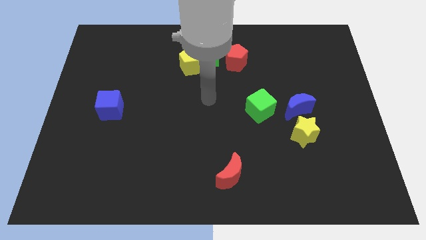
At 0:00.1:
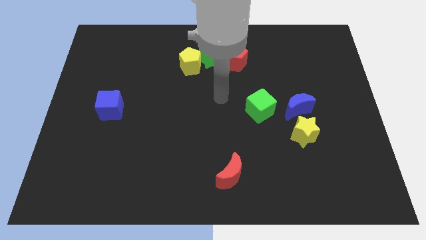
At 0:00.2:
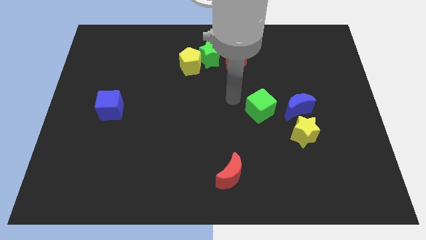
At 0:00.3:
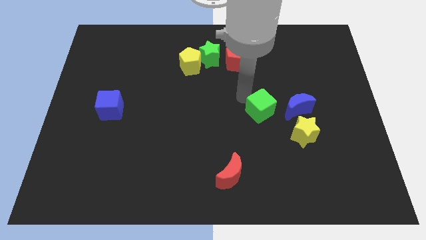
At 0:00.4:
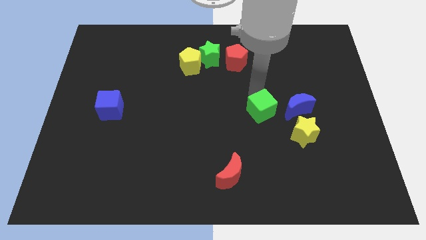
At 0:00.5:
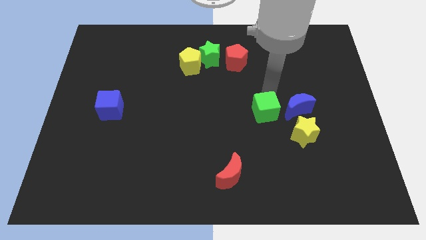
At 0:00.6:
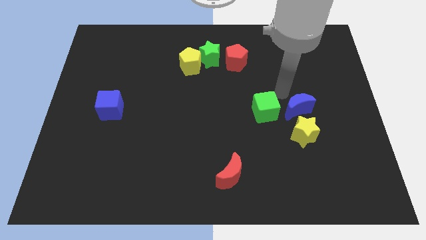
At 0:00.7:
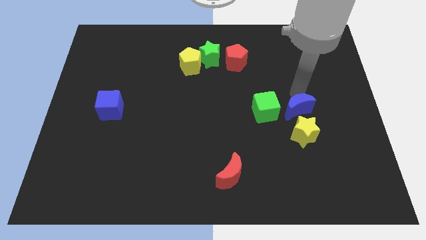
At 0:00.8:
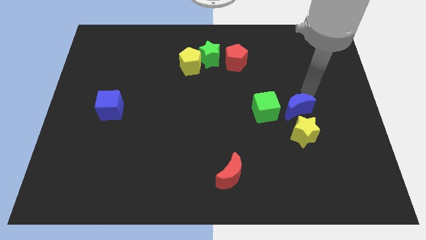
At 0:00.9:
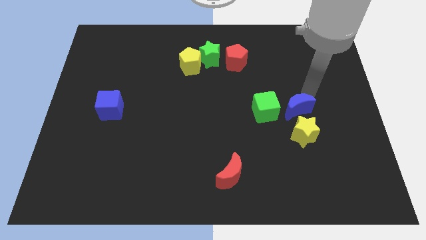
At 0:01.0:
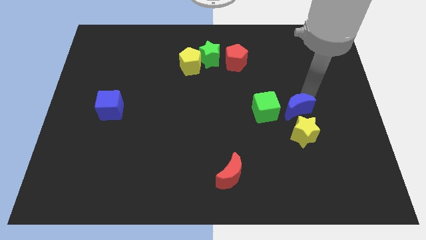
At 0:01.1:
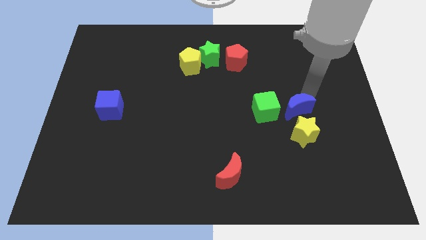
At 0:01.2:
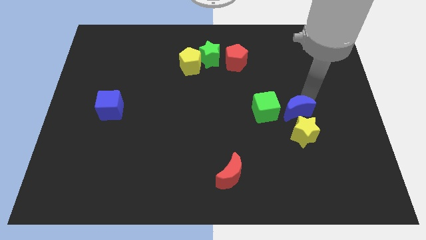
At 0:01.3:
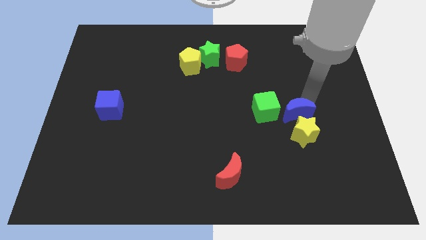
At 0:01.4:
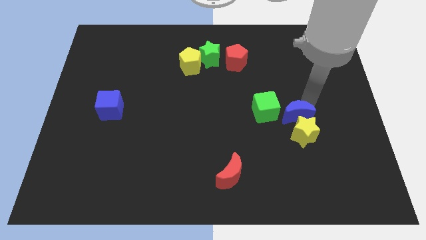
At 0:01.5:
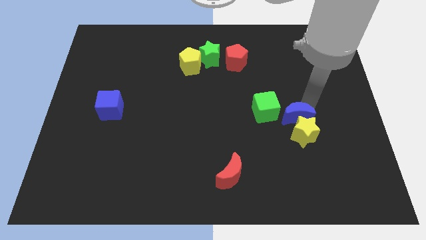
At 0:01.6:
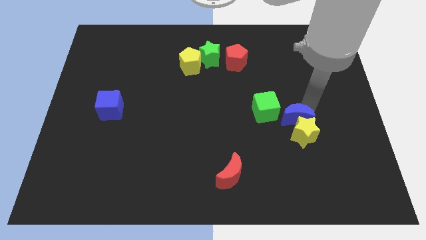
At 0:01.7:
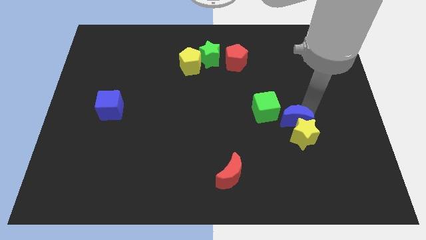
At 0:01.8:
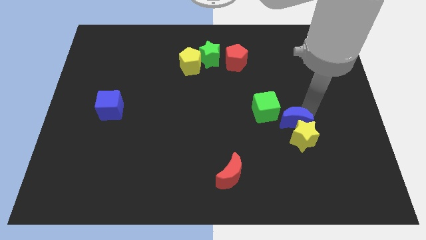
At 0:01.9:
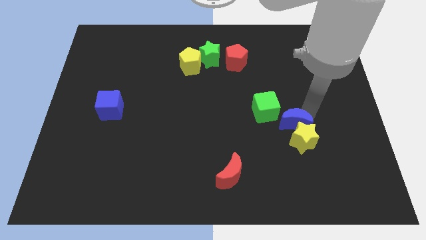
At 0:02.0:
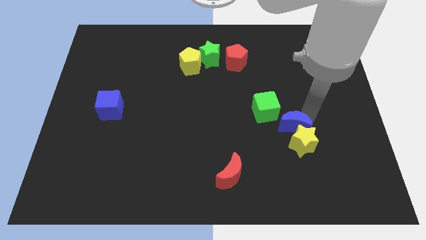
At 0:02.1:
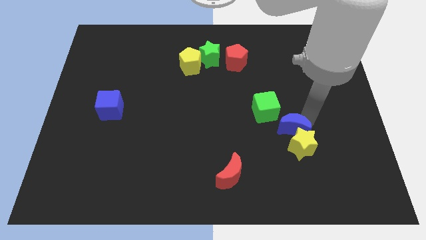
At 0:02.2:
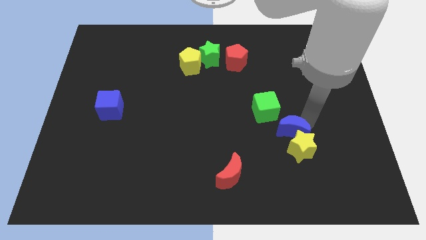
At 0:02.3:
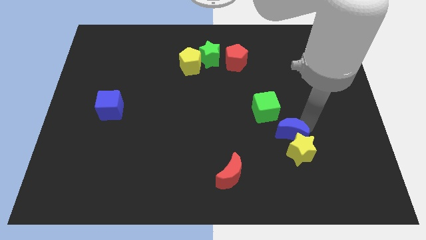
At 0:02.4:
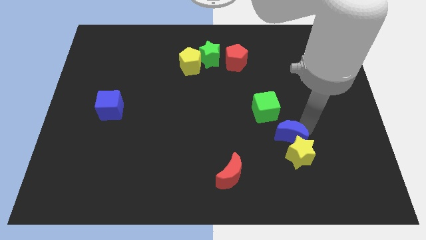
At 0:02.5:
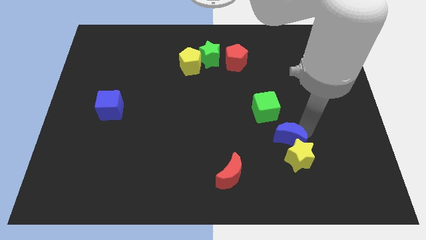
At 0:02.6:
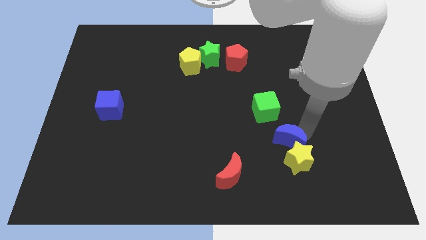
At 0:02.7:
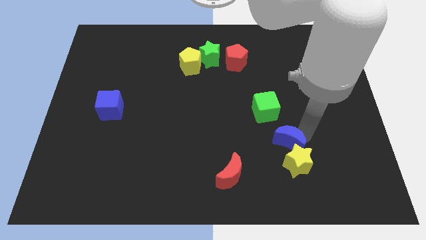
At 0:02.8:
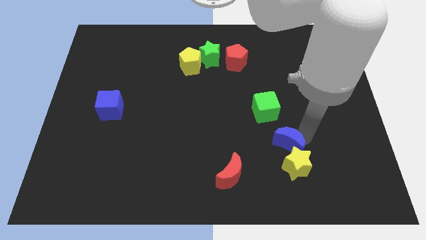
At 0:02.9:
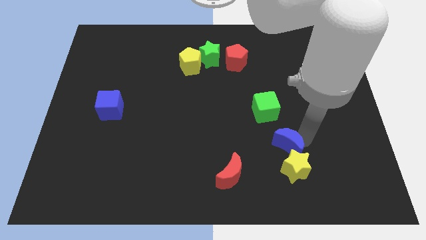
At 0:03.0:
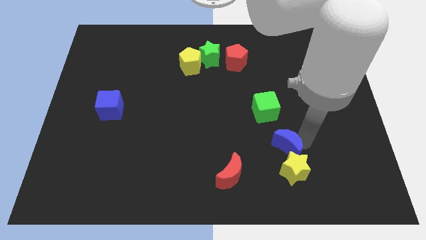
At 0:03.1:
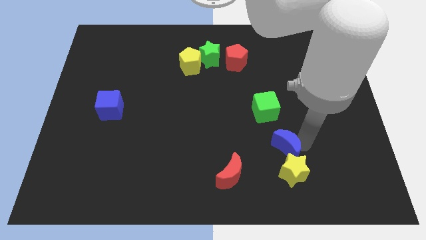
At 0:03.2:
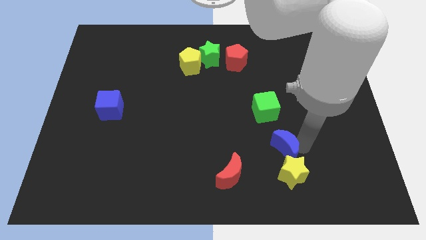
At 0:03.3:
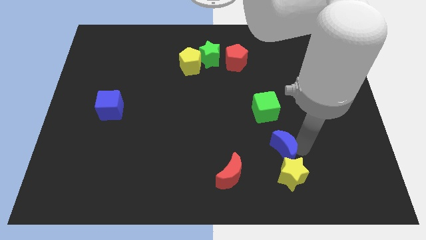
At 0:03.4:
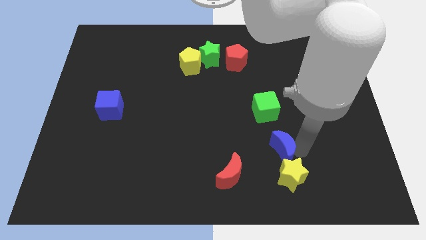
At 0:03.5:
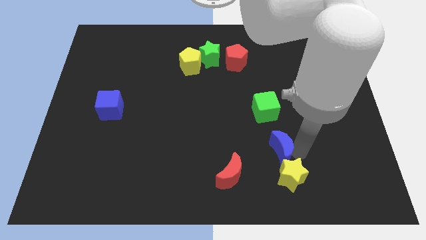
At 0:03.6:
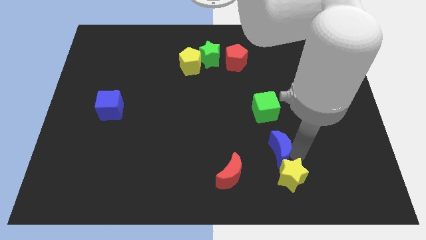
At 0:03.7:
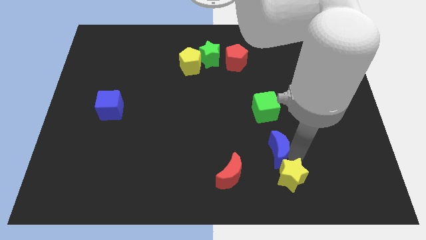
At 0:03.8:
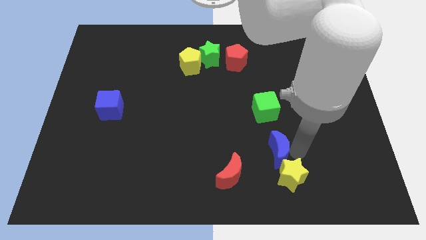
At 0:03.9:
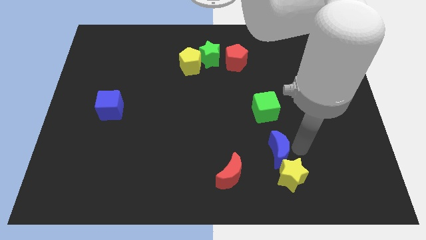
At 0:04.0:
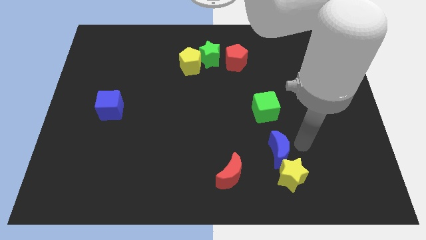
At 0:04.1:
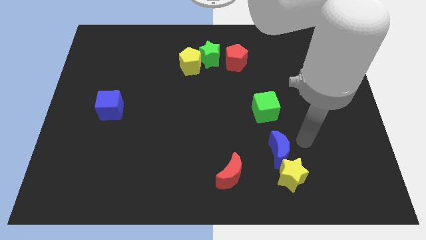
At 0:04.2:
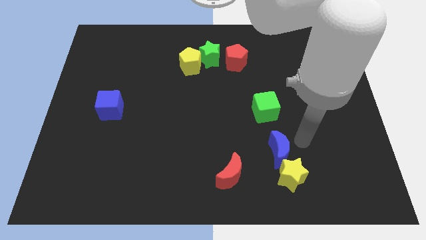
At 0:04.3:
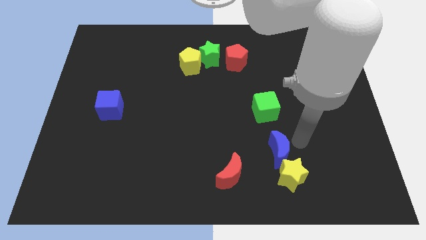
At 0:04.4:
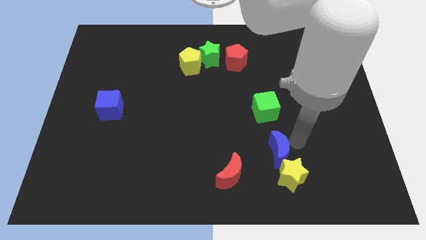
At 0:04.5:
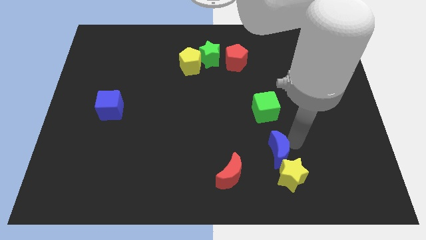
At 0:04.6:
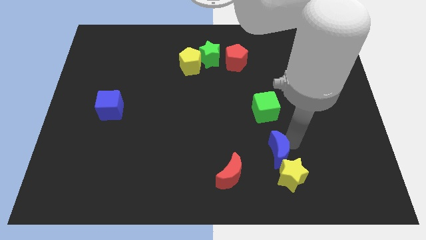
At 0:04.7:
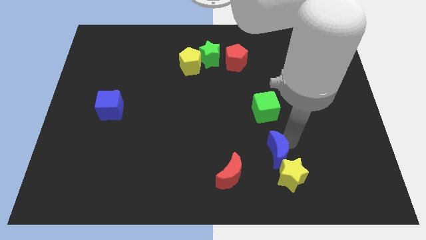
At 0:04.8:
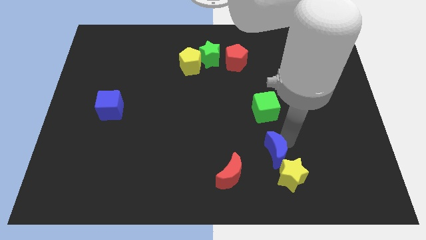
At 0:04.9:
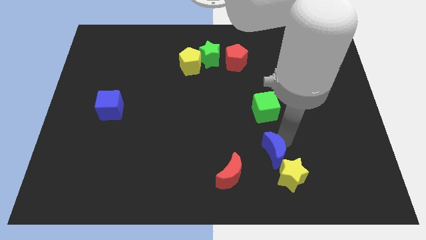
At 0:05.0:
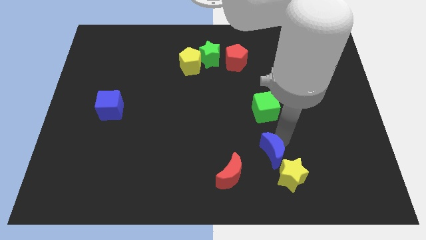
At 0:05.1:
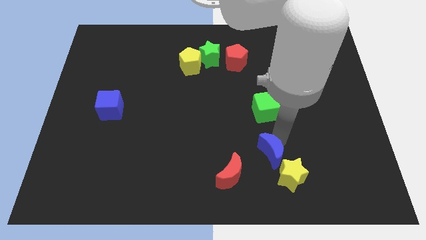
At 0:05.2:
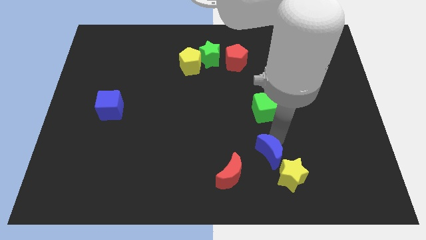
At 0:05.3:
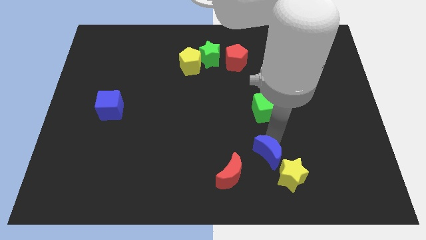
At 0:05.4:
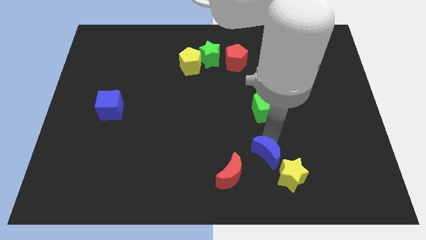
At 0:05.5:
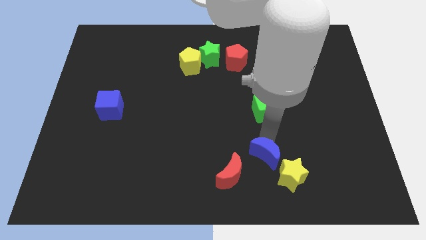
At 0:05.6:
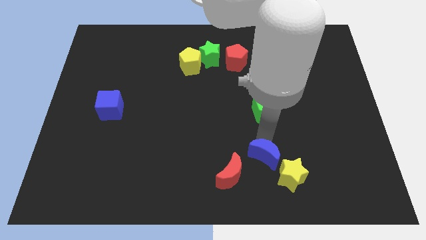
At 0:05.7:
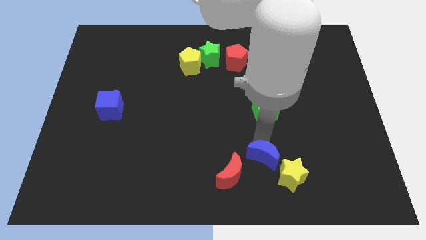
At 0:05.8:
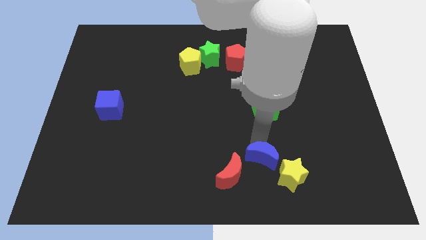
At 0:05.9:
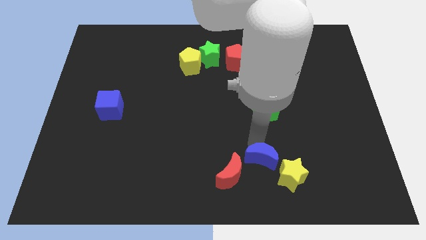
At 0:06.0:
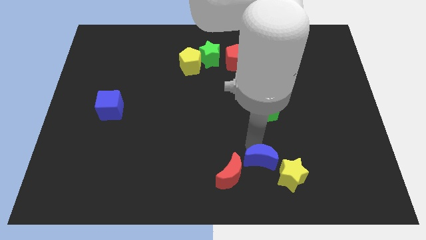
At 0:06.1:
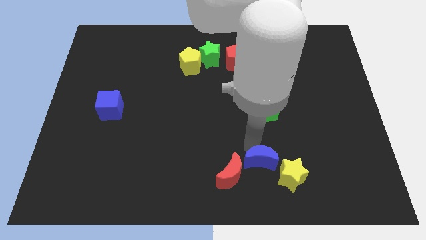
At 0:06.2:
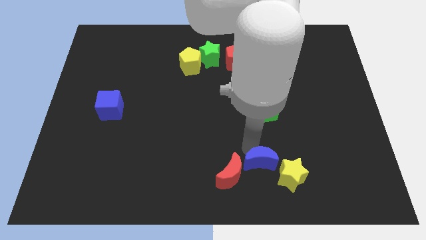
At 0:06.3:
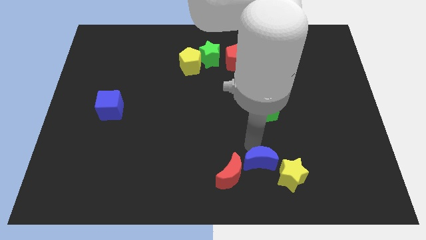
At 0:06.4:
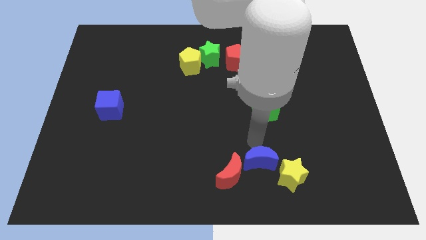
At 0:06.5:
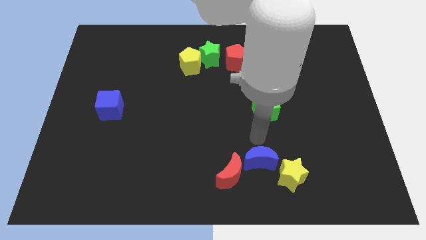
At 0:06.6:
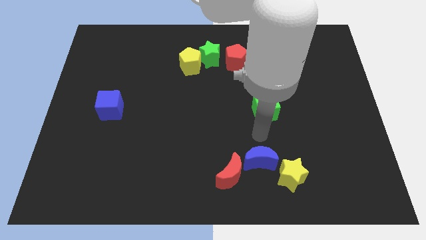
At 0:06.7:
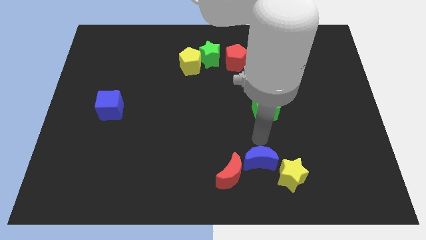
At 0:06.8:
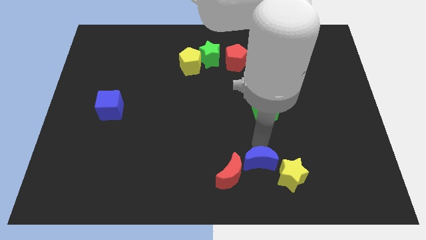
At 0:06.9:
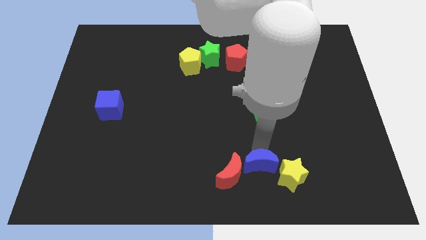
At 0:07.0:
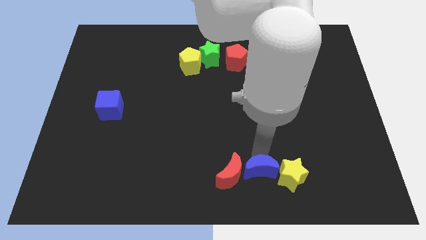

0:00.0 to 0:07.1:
slide the blue moon to the bottom side
